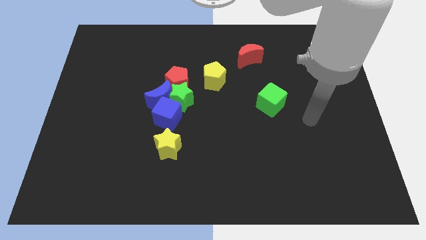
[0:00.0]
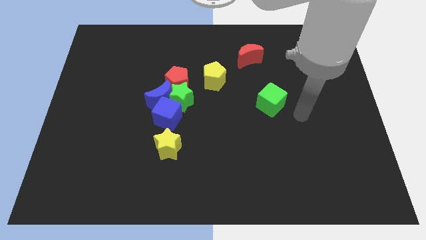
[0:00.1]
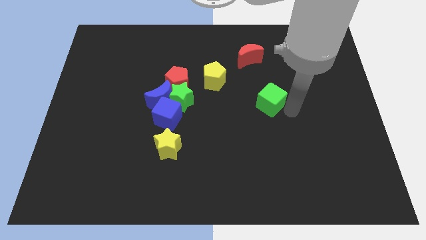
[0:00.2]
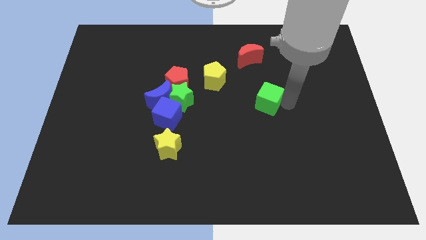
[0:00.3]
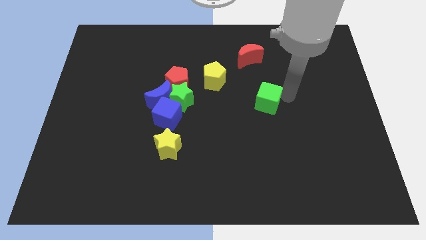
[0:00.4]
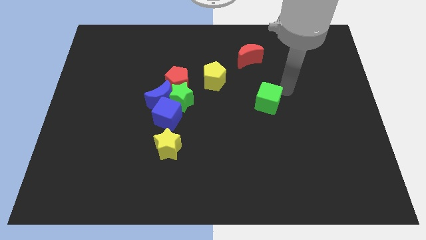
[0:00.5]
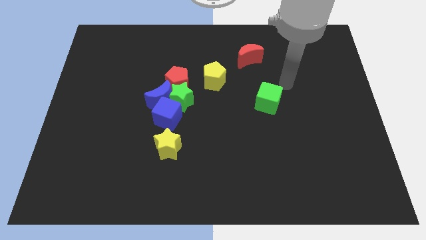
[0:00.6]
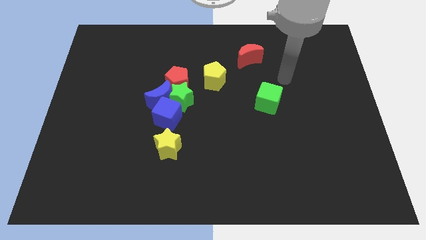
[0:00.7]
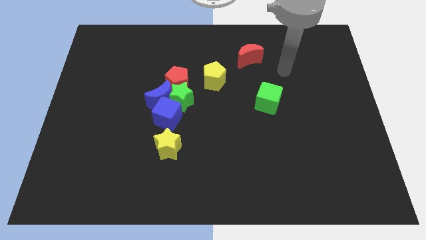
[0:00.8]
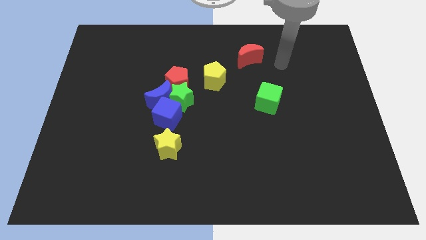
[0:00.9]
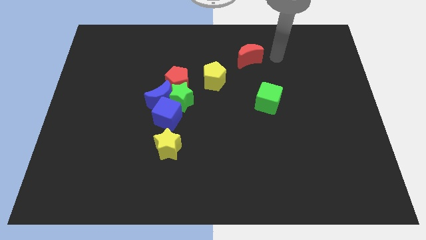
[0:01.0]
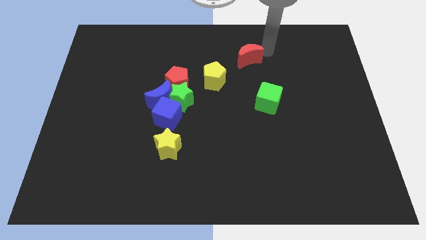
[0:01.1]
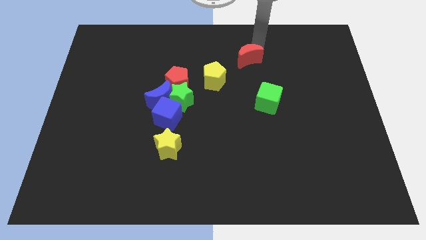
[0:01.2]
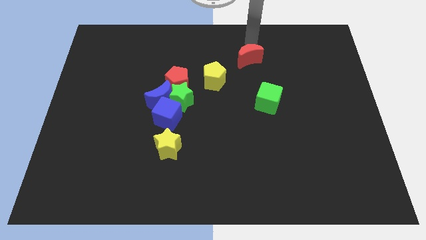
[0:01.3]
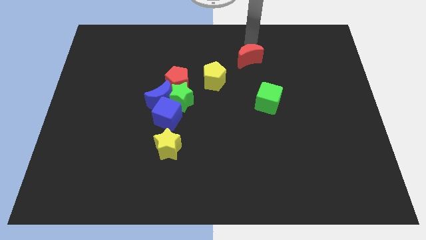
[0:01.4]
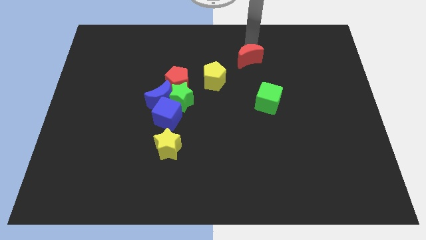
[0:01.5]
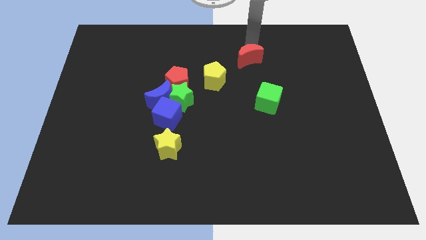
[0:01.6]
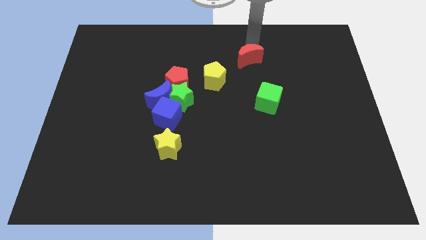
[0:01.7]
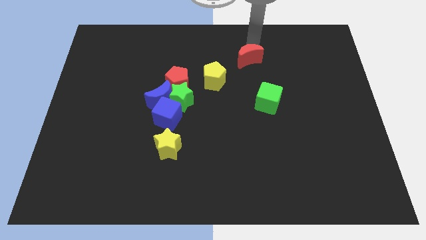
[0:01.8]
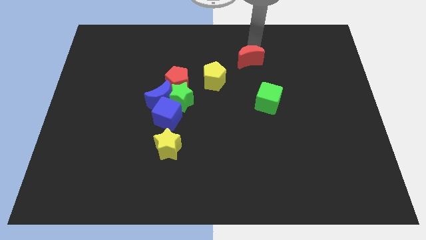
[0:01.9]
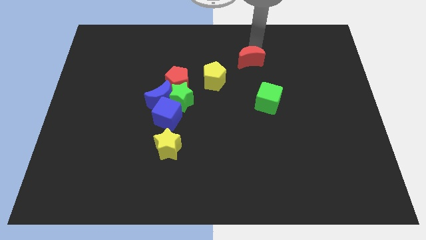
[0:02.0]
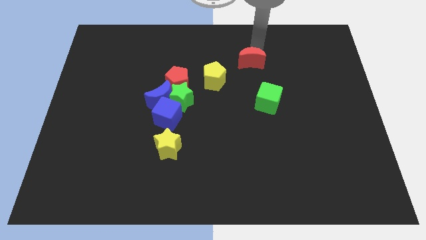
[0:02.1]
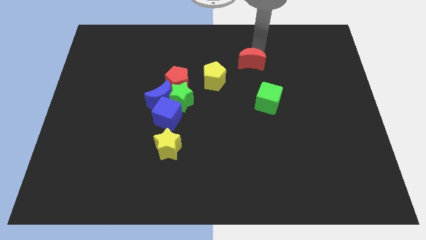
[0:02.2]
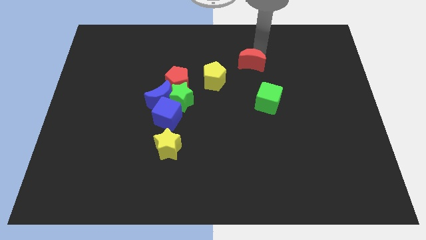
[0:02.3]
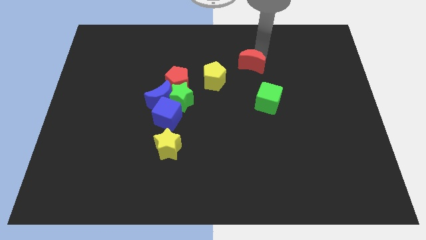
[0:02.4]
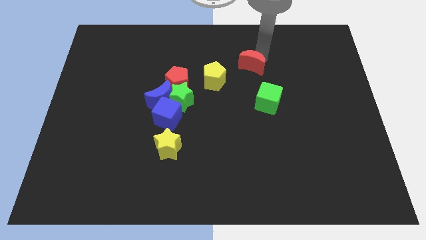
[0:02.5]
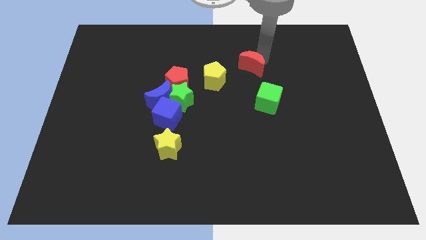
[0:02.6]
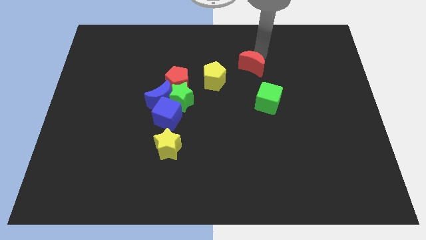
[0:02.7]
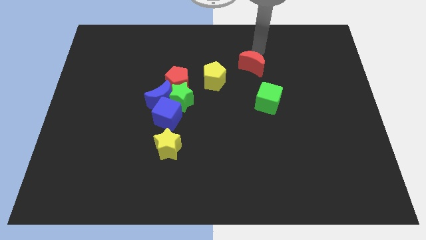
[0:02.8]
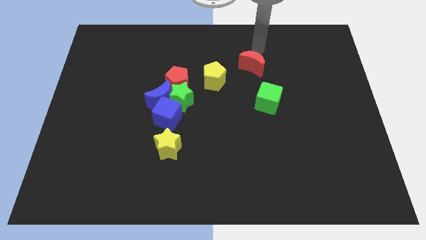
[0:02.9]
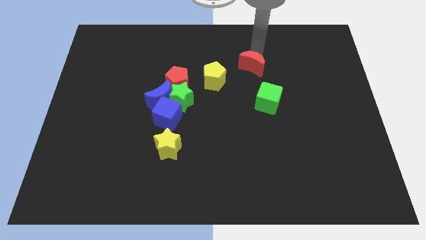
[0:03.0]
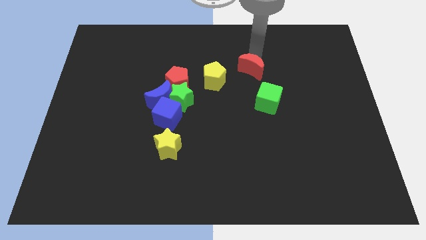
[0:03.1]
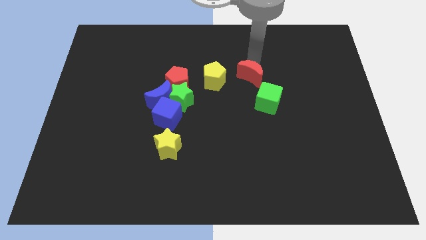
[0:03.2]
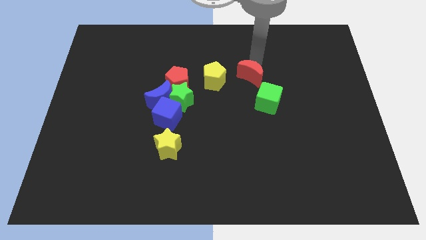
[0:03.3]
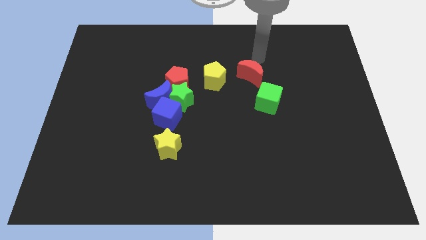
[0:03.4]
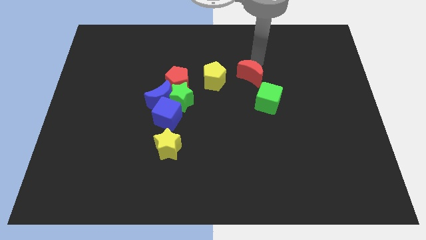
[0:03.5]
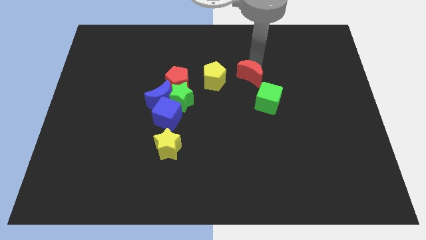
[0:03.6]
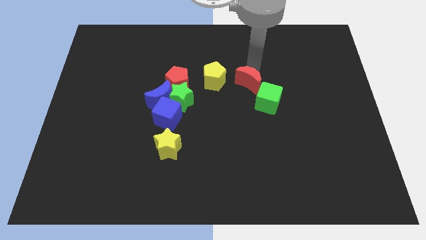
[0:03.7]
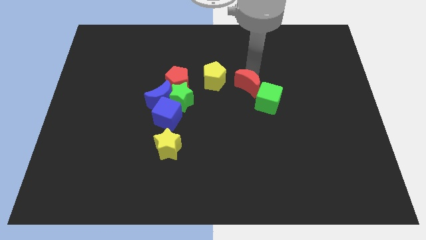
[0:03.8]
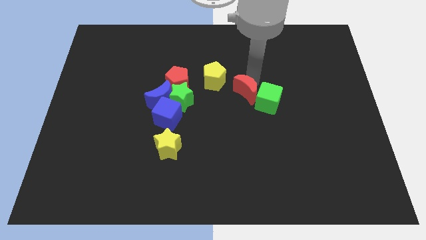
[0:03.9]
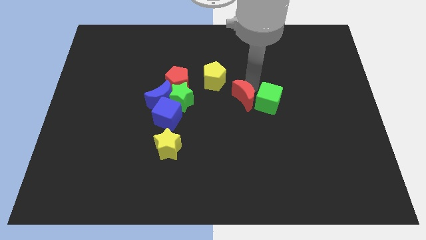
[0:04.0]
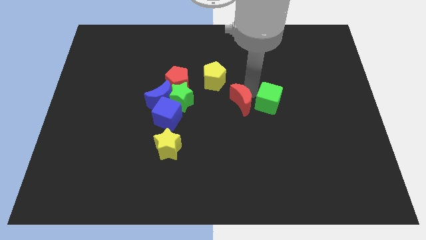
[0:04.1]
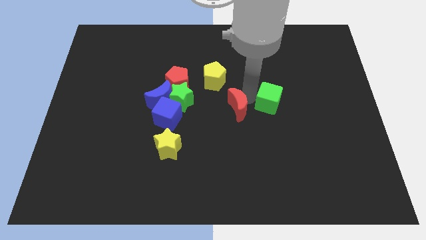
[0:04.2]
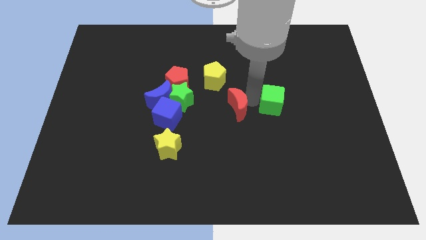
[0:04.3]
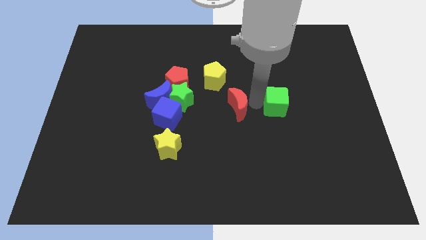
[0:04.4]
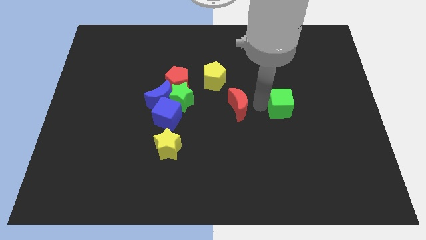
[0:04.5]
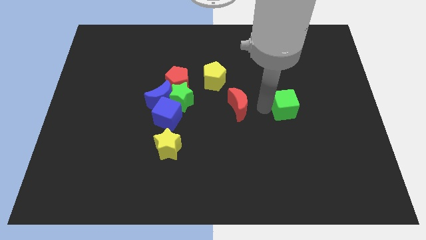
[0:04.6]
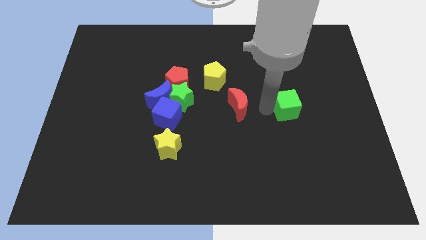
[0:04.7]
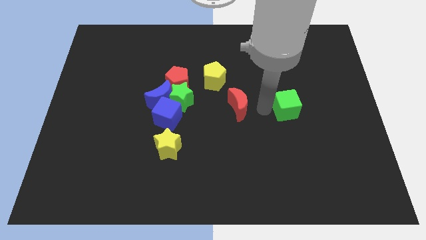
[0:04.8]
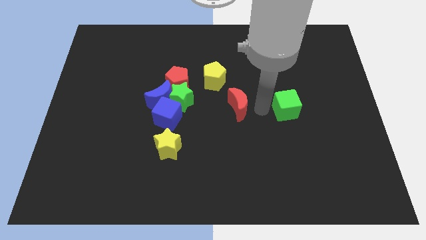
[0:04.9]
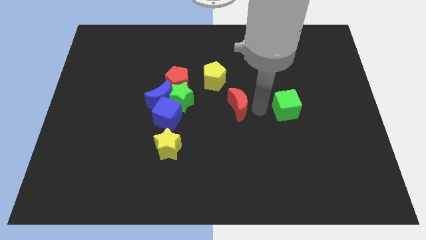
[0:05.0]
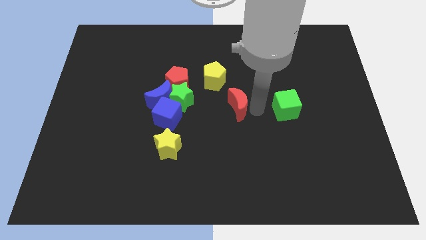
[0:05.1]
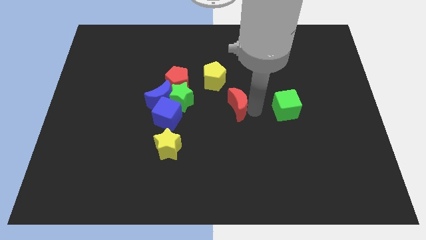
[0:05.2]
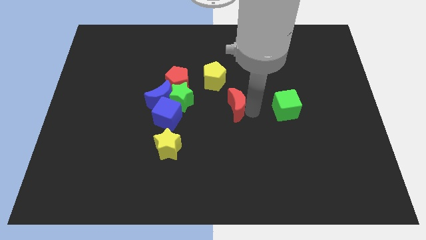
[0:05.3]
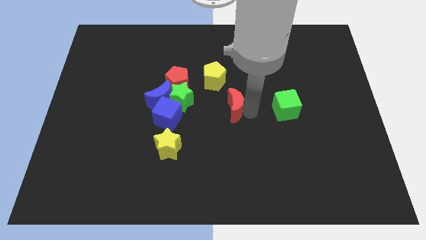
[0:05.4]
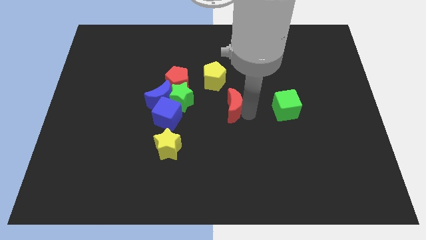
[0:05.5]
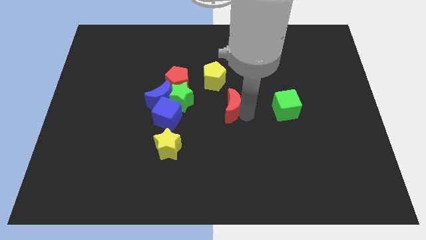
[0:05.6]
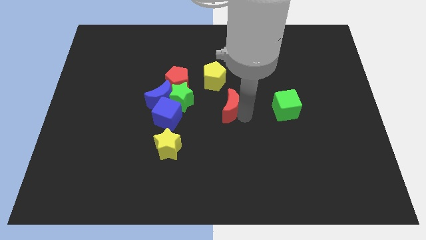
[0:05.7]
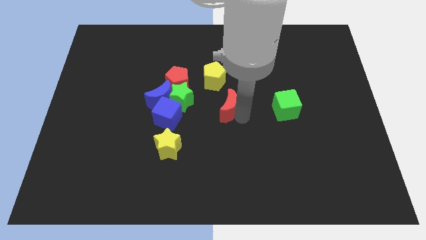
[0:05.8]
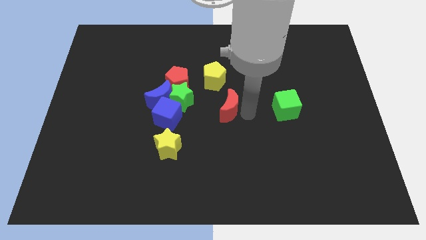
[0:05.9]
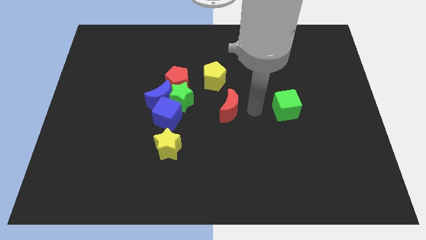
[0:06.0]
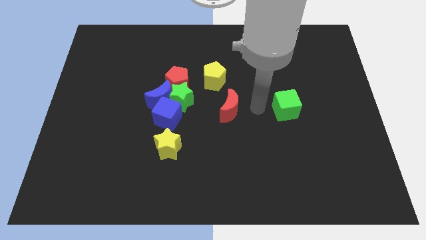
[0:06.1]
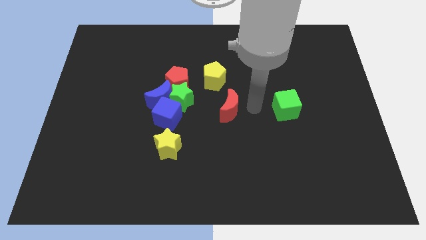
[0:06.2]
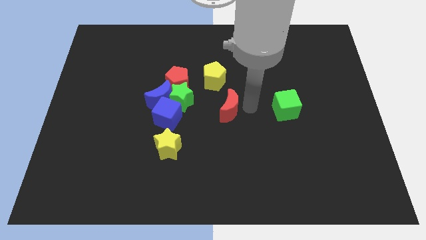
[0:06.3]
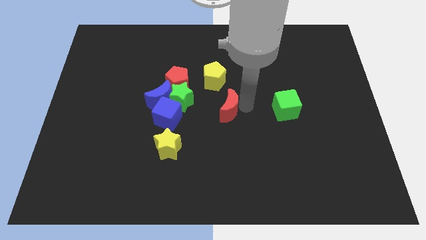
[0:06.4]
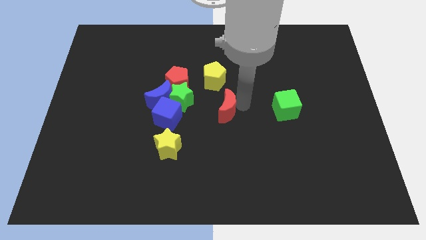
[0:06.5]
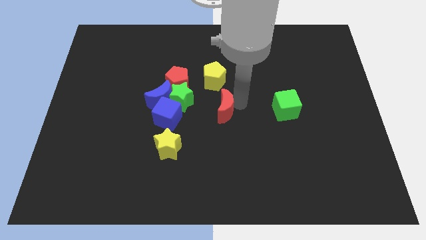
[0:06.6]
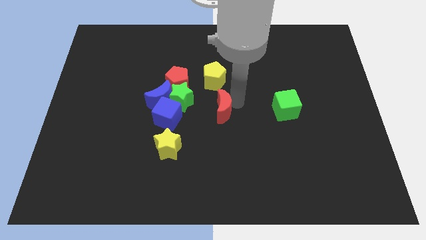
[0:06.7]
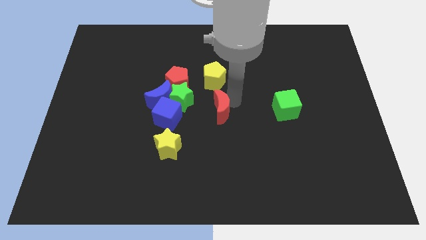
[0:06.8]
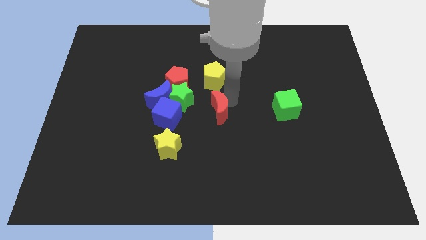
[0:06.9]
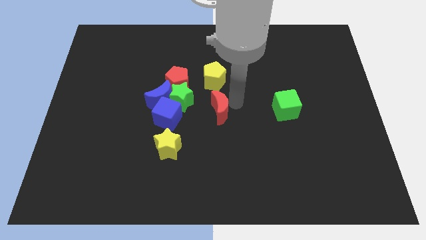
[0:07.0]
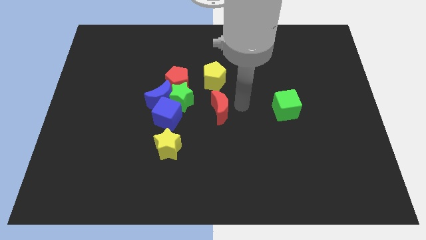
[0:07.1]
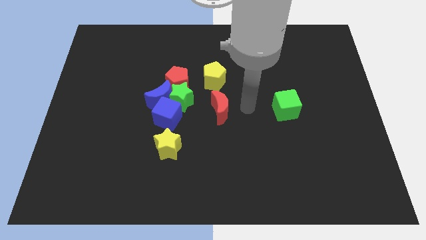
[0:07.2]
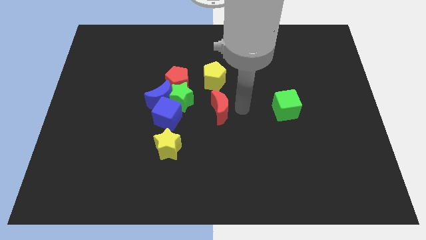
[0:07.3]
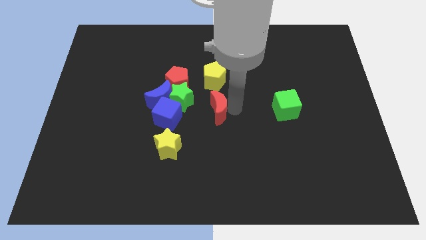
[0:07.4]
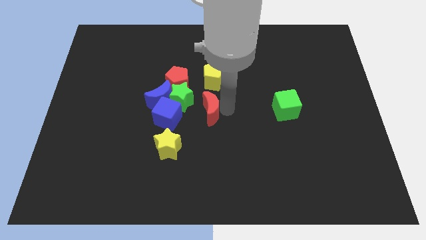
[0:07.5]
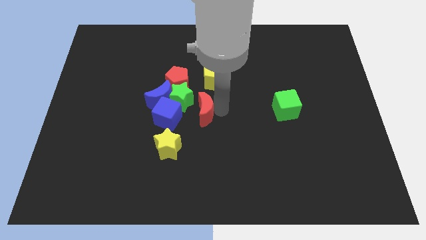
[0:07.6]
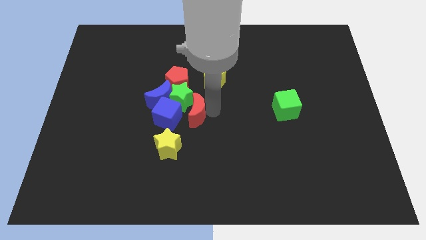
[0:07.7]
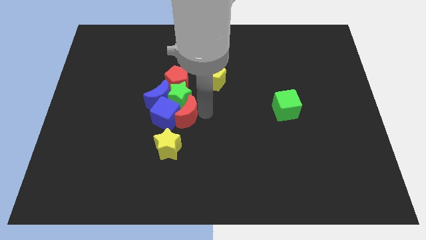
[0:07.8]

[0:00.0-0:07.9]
slide the red moon next to the blue cube

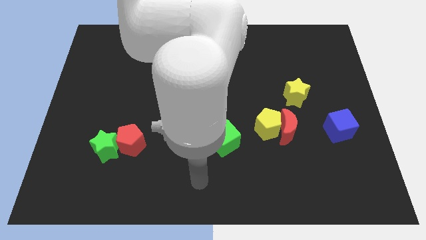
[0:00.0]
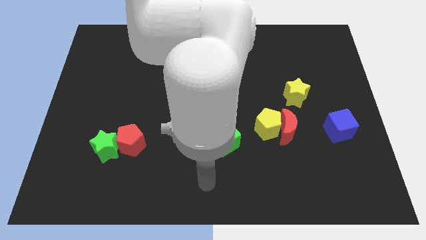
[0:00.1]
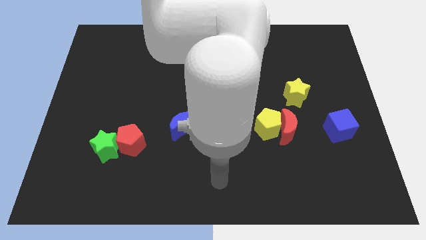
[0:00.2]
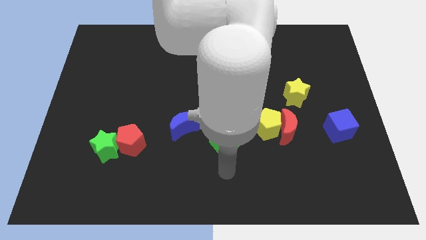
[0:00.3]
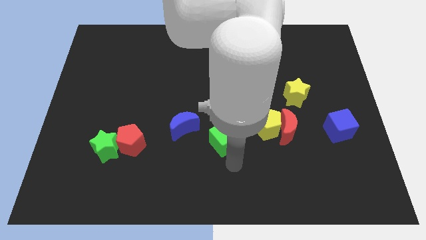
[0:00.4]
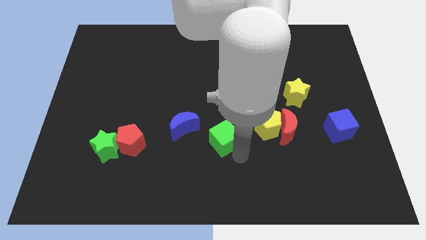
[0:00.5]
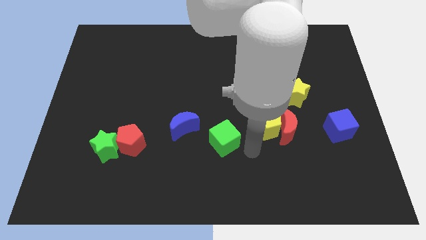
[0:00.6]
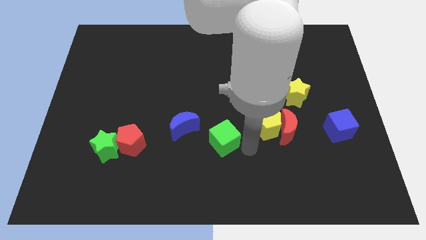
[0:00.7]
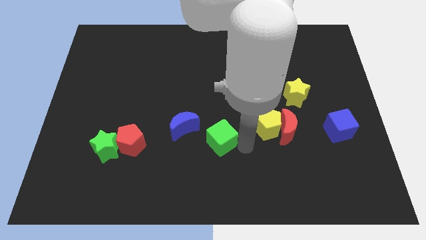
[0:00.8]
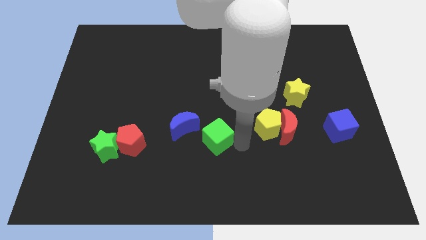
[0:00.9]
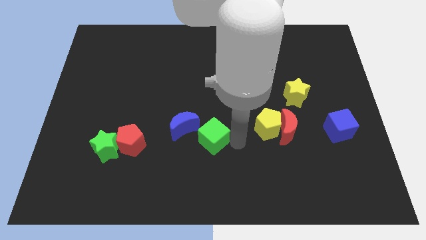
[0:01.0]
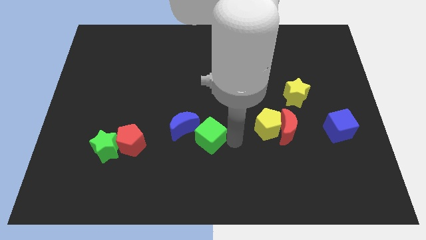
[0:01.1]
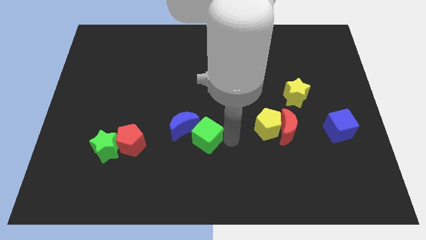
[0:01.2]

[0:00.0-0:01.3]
put the green cube next to the blue moon
